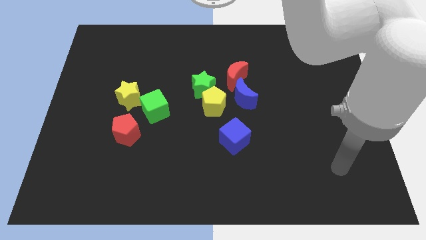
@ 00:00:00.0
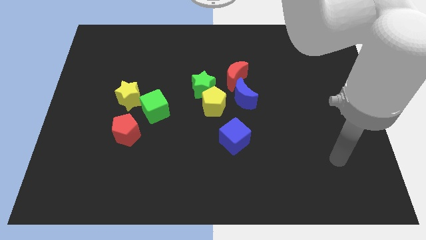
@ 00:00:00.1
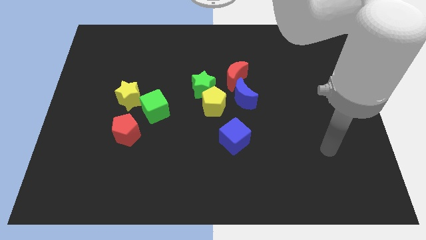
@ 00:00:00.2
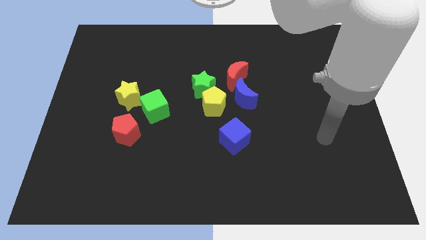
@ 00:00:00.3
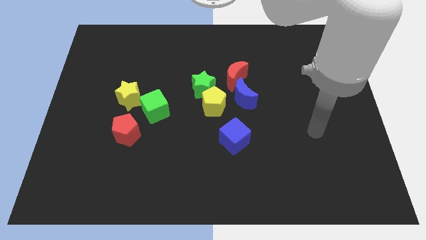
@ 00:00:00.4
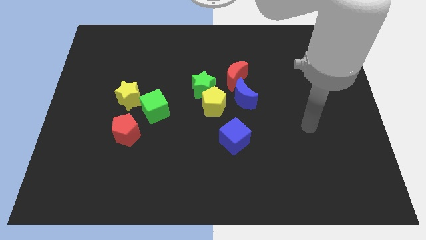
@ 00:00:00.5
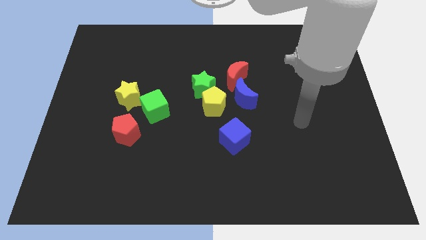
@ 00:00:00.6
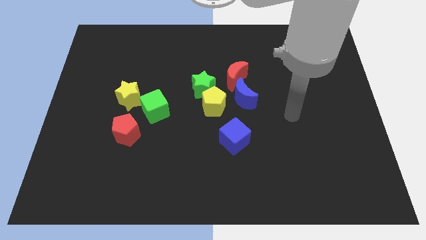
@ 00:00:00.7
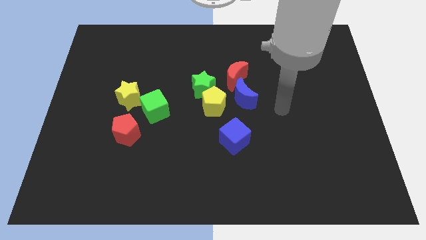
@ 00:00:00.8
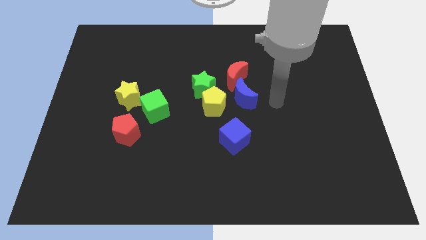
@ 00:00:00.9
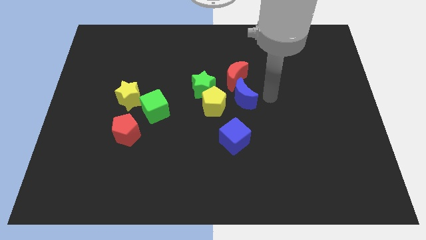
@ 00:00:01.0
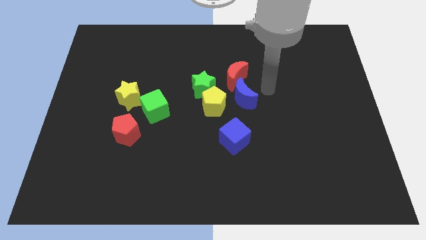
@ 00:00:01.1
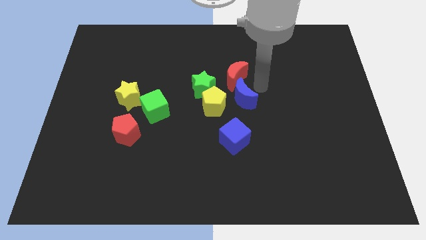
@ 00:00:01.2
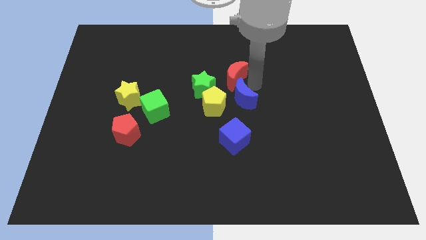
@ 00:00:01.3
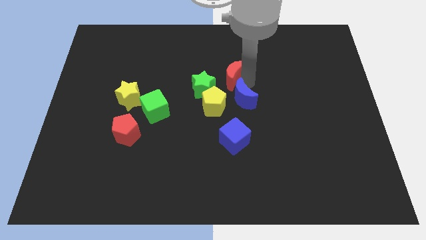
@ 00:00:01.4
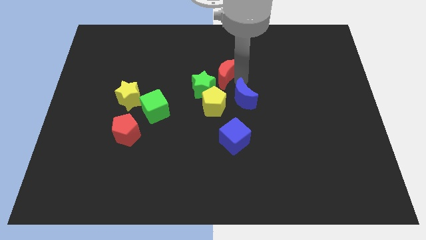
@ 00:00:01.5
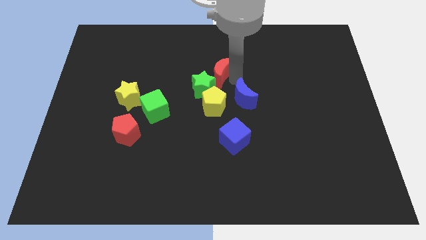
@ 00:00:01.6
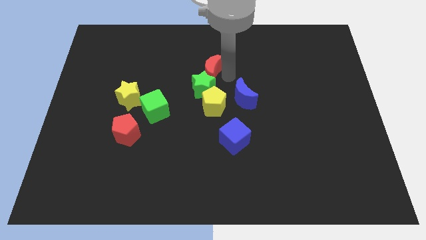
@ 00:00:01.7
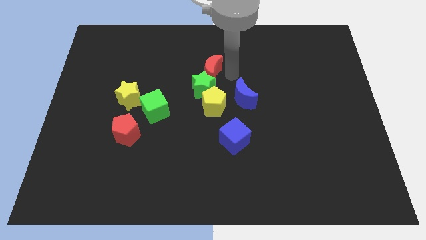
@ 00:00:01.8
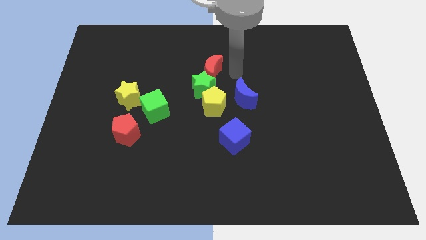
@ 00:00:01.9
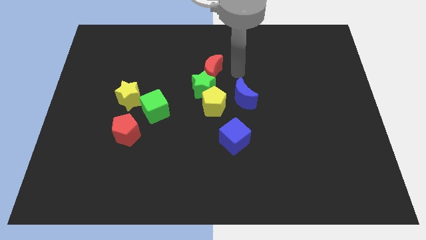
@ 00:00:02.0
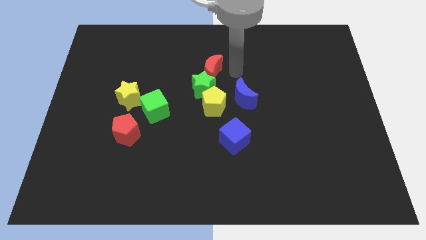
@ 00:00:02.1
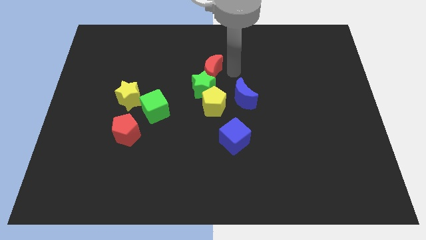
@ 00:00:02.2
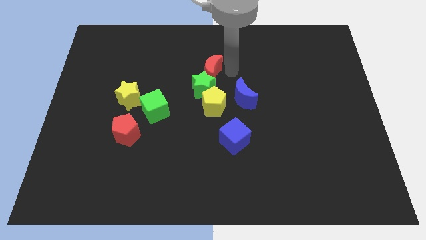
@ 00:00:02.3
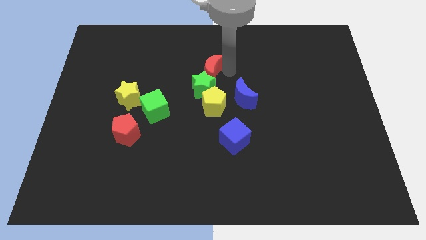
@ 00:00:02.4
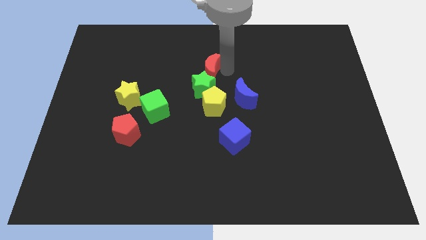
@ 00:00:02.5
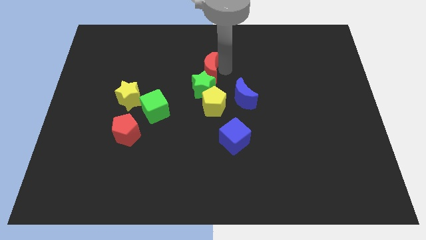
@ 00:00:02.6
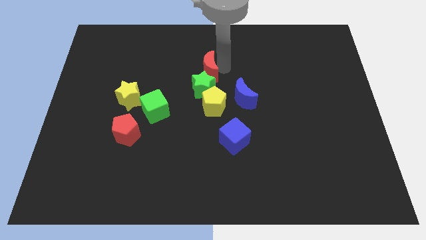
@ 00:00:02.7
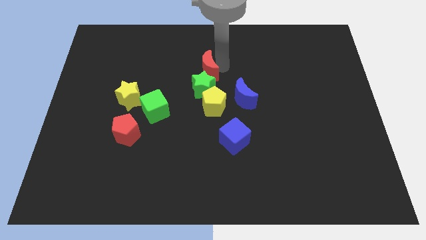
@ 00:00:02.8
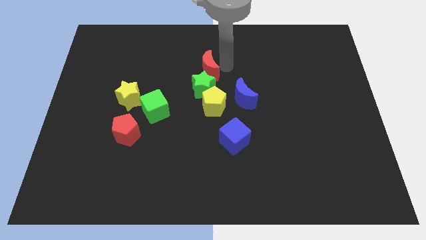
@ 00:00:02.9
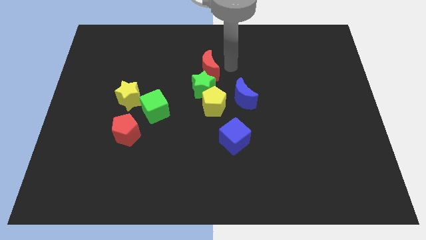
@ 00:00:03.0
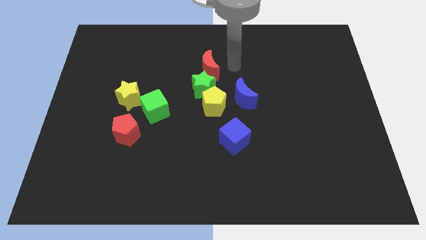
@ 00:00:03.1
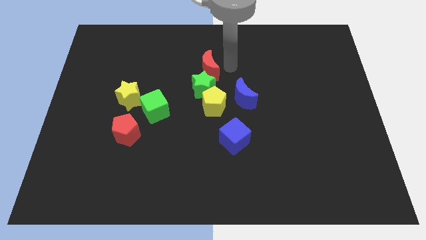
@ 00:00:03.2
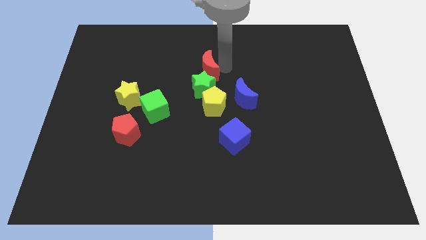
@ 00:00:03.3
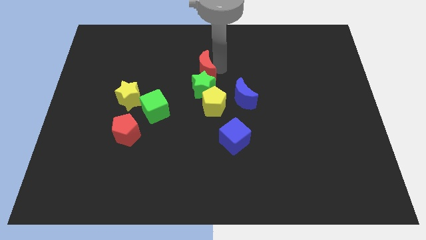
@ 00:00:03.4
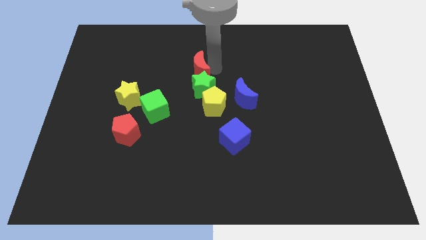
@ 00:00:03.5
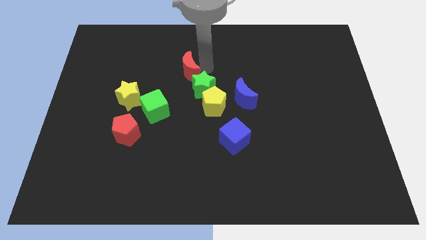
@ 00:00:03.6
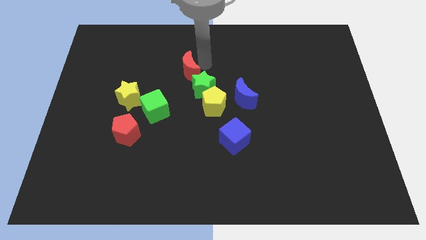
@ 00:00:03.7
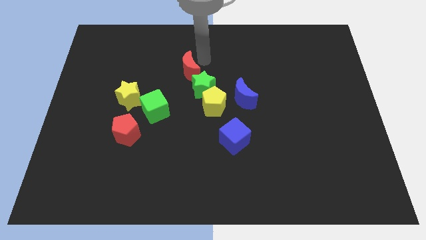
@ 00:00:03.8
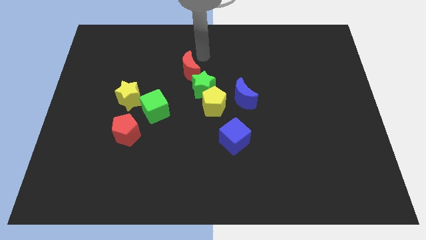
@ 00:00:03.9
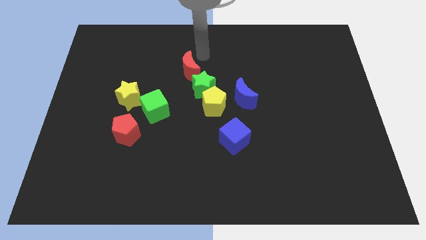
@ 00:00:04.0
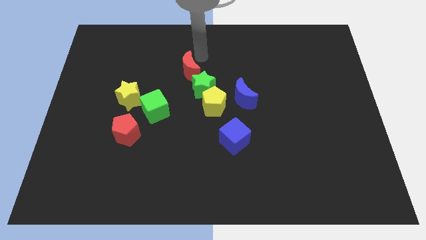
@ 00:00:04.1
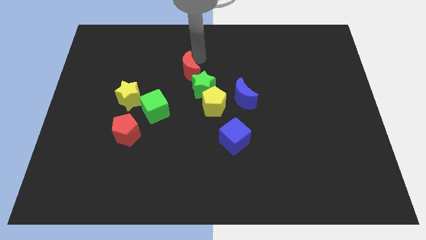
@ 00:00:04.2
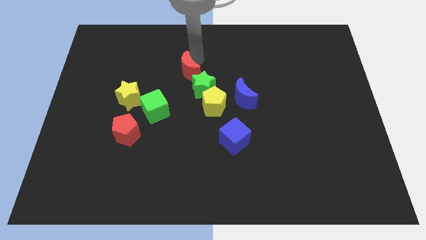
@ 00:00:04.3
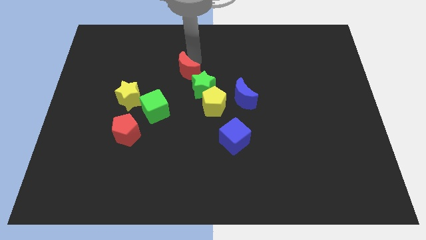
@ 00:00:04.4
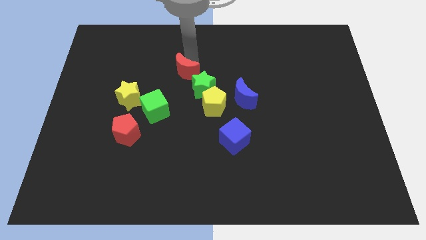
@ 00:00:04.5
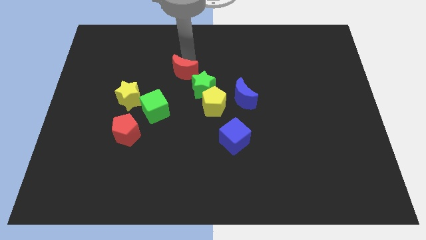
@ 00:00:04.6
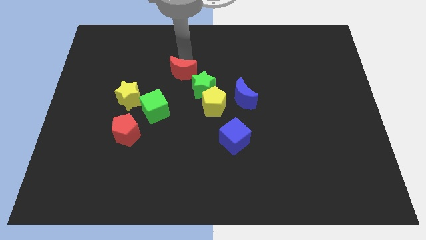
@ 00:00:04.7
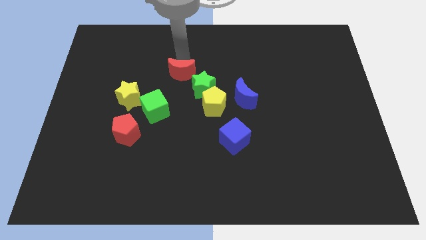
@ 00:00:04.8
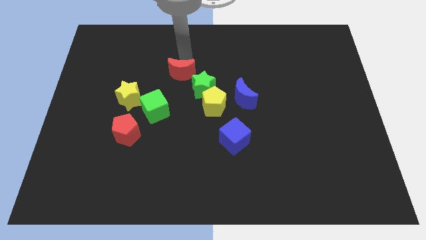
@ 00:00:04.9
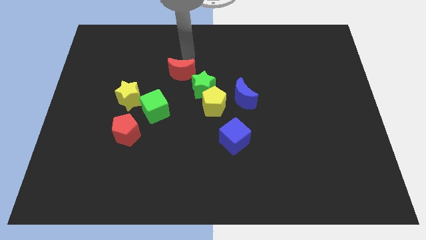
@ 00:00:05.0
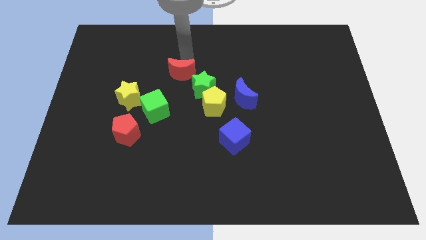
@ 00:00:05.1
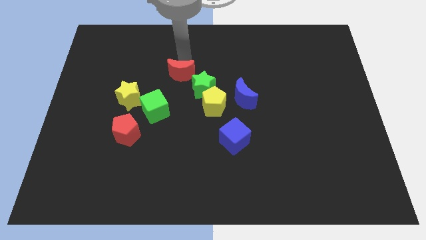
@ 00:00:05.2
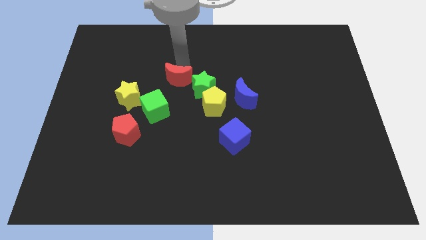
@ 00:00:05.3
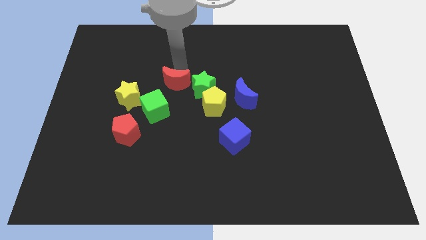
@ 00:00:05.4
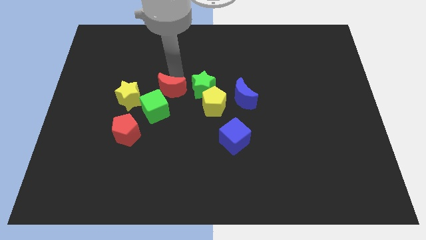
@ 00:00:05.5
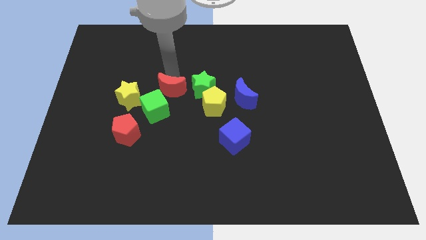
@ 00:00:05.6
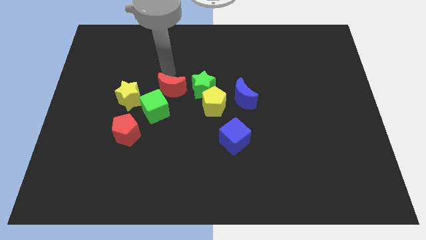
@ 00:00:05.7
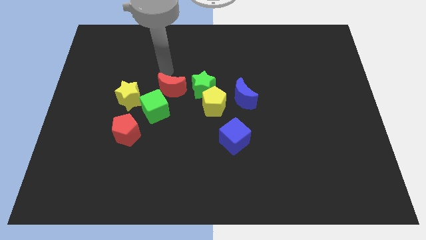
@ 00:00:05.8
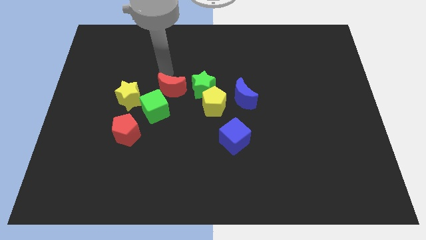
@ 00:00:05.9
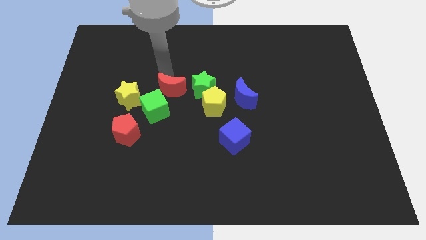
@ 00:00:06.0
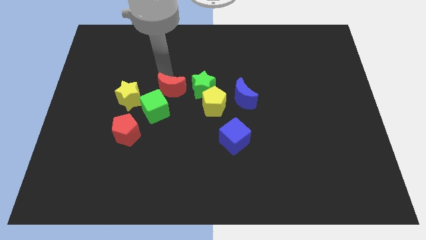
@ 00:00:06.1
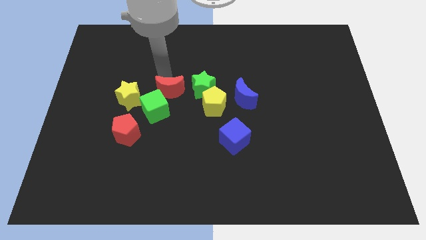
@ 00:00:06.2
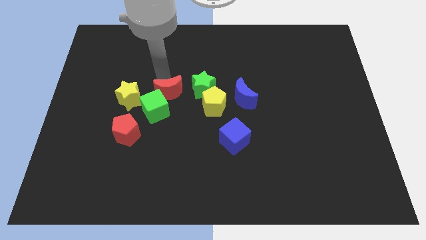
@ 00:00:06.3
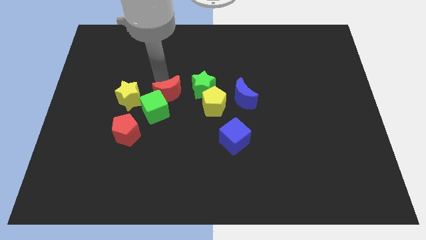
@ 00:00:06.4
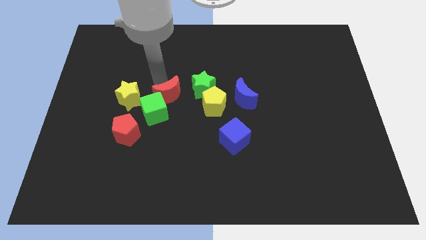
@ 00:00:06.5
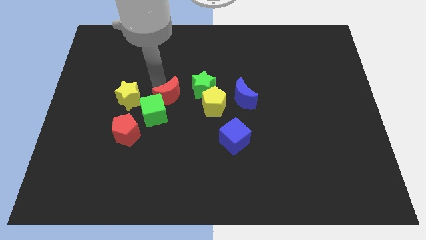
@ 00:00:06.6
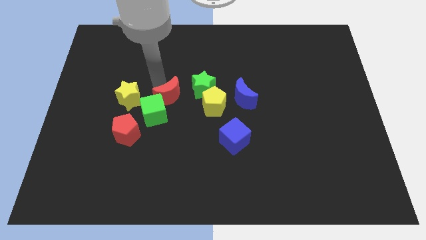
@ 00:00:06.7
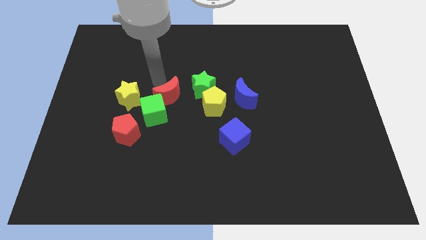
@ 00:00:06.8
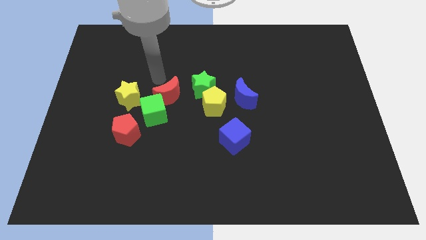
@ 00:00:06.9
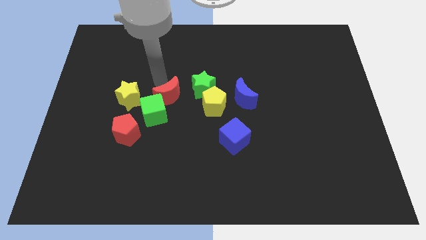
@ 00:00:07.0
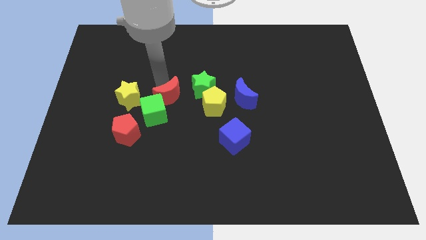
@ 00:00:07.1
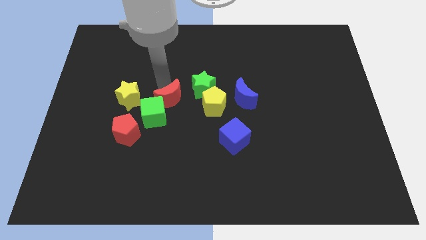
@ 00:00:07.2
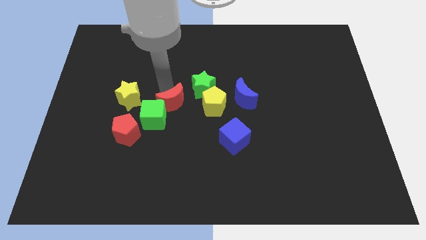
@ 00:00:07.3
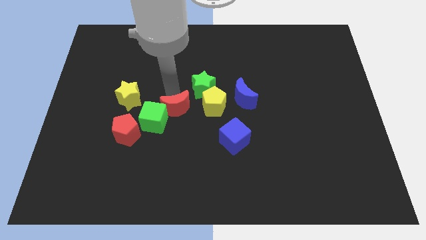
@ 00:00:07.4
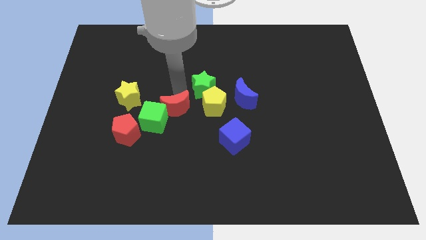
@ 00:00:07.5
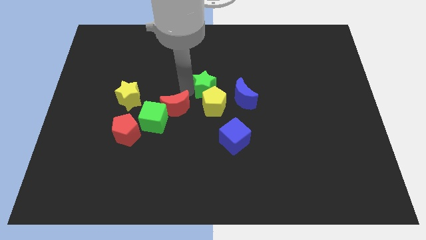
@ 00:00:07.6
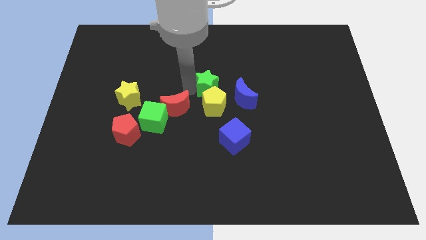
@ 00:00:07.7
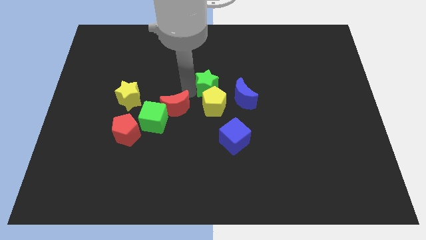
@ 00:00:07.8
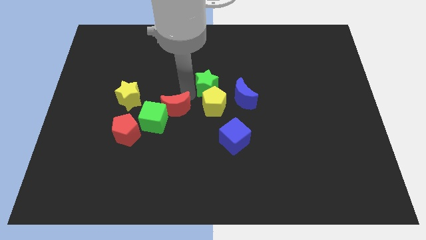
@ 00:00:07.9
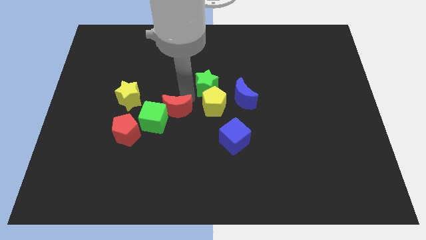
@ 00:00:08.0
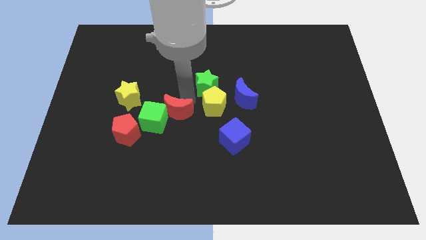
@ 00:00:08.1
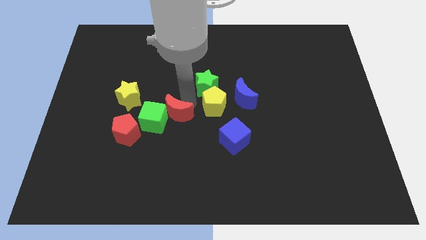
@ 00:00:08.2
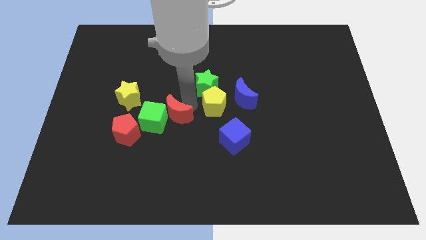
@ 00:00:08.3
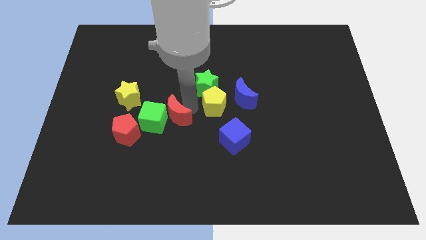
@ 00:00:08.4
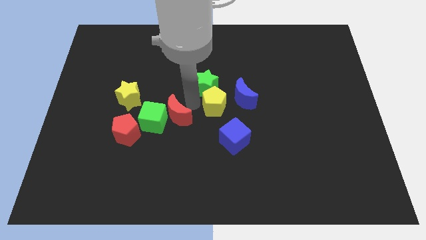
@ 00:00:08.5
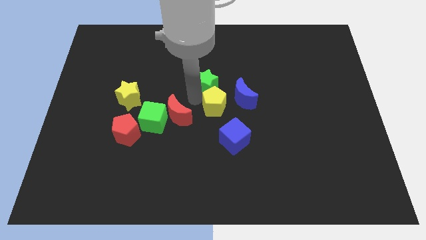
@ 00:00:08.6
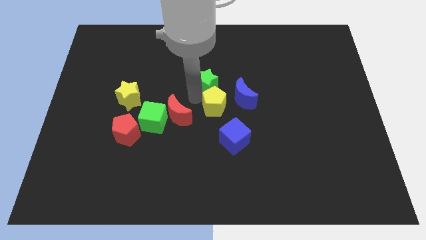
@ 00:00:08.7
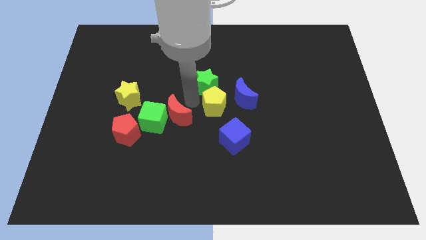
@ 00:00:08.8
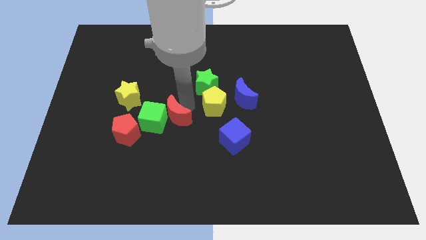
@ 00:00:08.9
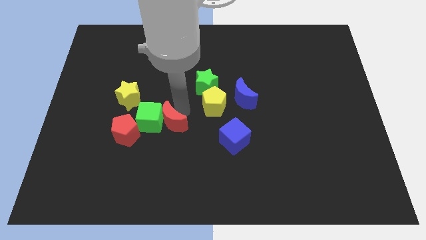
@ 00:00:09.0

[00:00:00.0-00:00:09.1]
slide the red moon down and then left
